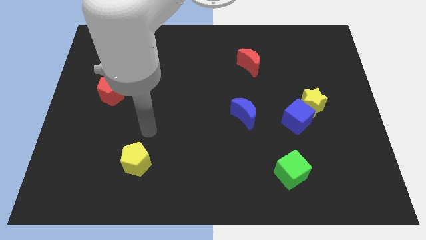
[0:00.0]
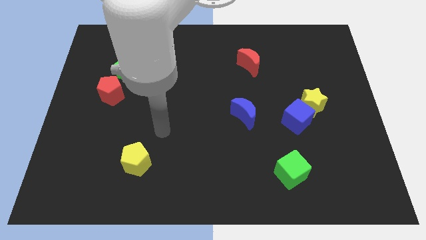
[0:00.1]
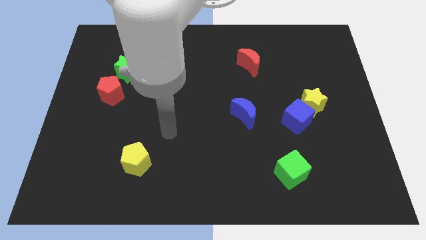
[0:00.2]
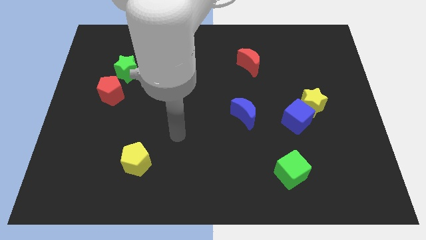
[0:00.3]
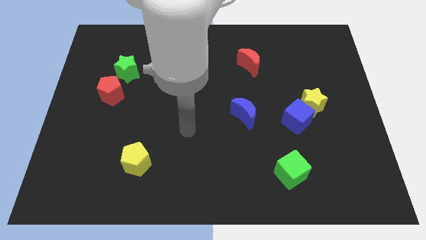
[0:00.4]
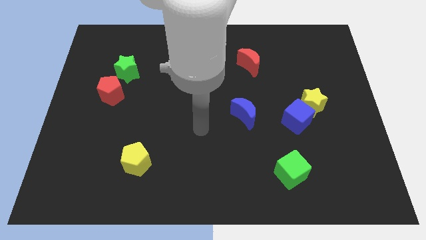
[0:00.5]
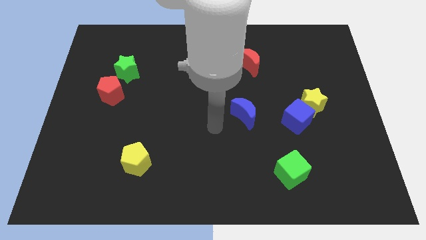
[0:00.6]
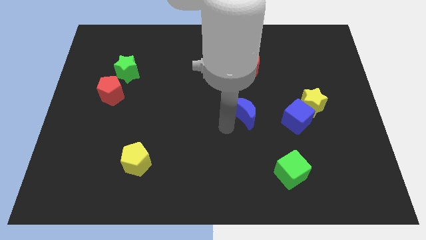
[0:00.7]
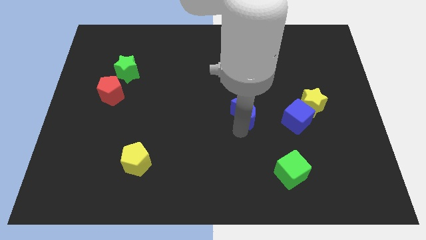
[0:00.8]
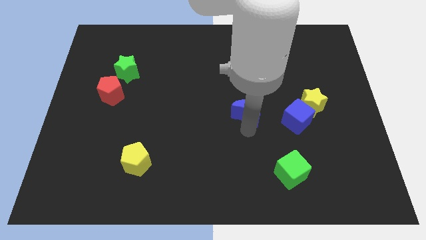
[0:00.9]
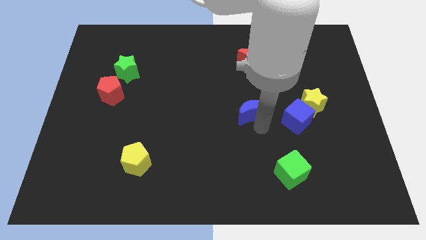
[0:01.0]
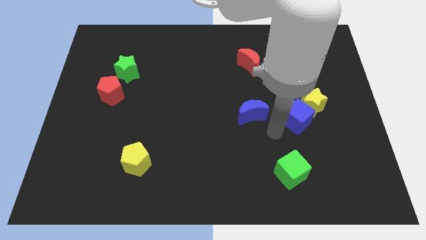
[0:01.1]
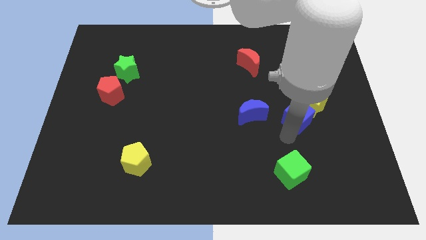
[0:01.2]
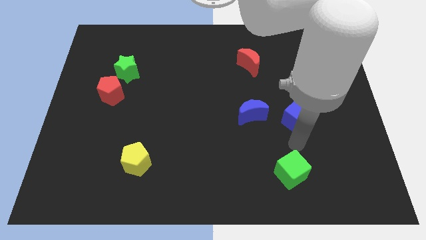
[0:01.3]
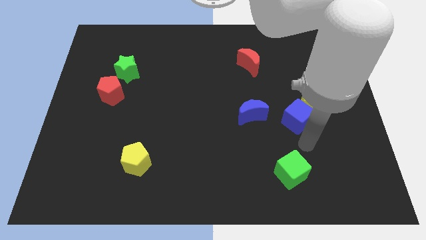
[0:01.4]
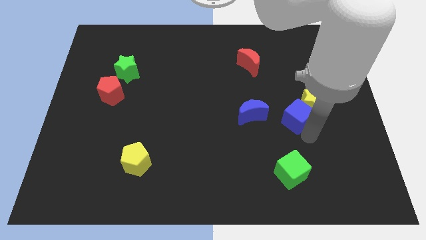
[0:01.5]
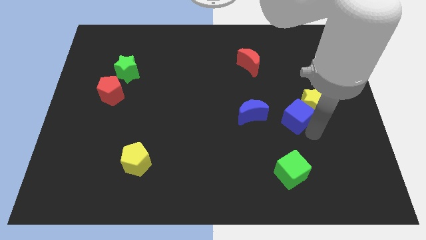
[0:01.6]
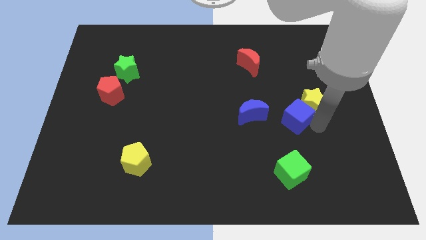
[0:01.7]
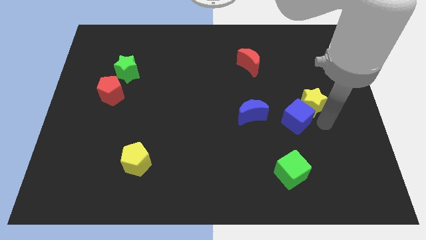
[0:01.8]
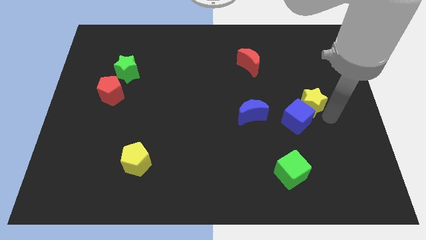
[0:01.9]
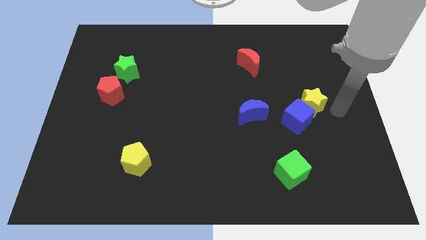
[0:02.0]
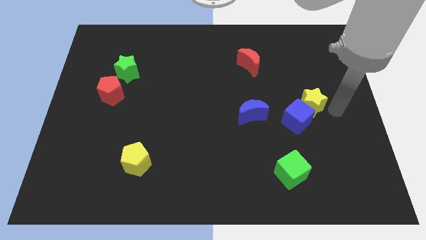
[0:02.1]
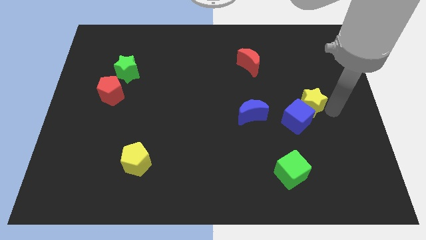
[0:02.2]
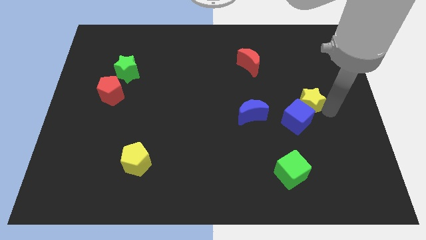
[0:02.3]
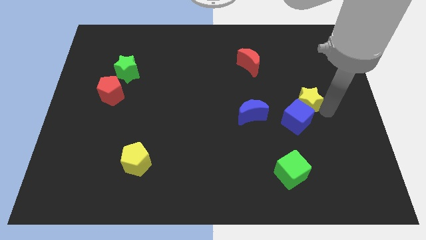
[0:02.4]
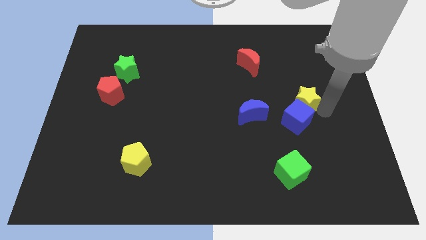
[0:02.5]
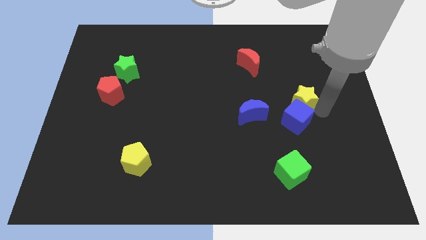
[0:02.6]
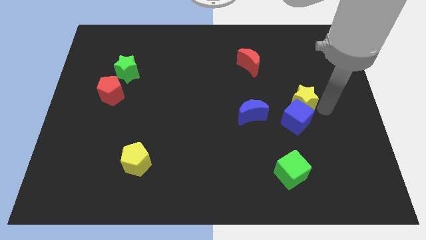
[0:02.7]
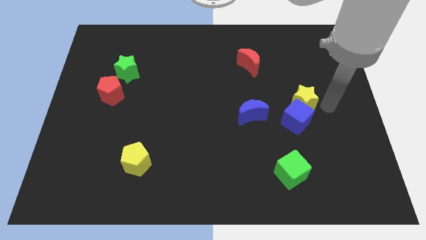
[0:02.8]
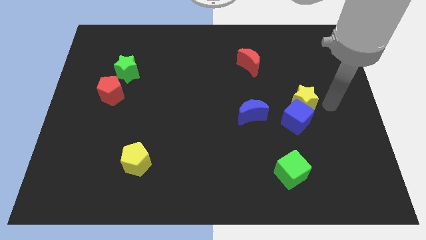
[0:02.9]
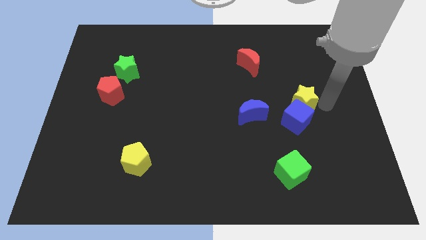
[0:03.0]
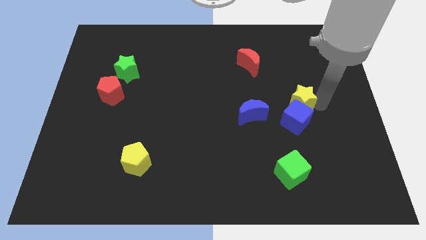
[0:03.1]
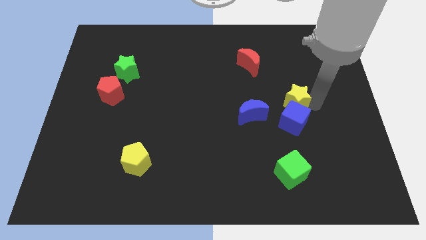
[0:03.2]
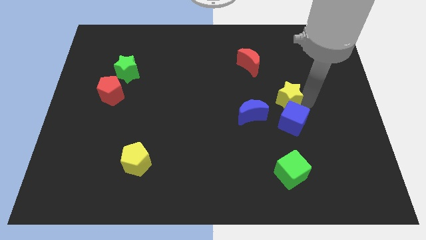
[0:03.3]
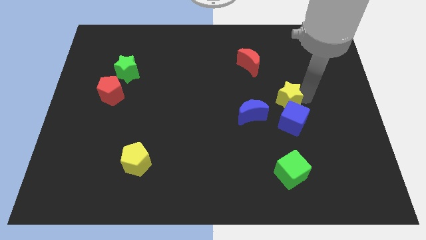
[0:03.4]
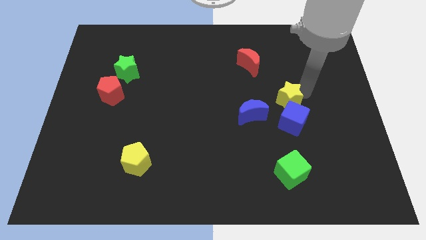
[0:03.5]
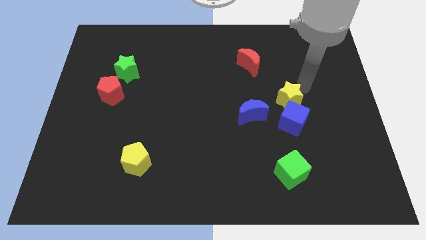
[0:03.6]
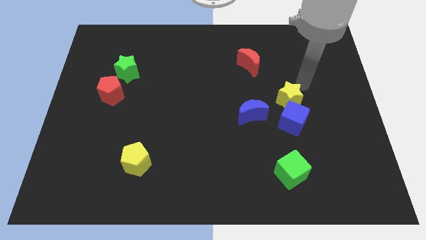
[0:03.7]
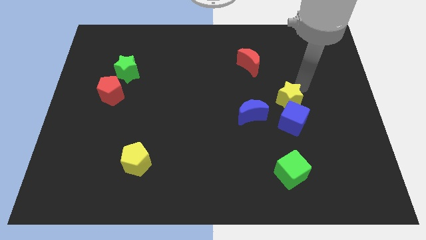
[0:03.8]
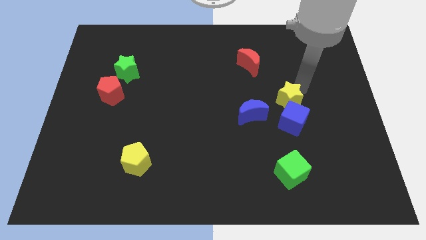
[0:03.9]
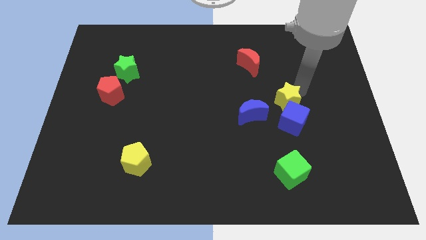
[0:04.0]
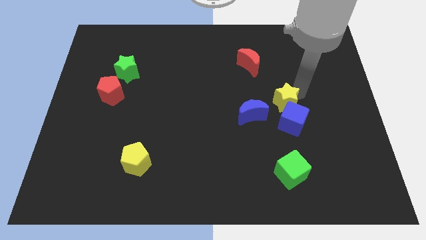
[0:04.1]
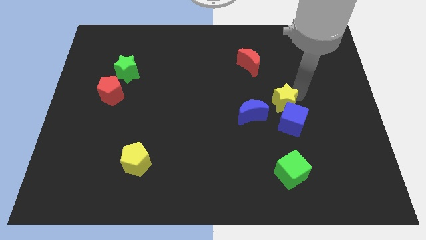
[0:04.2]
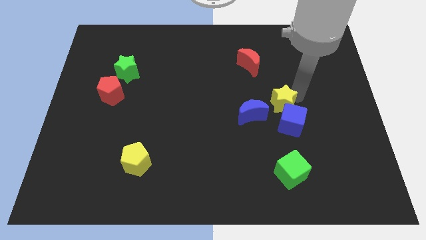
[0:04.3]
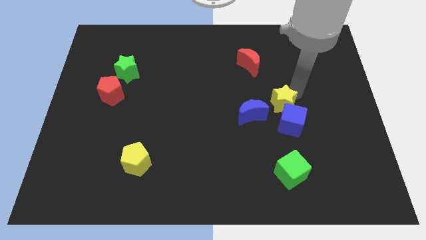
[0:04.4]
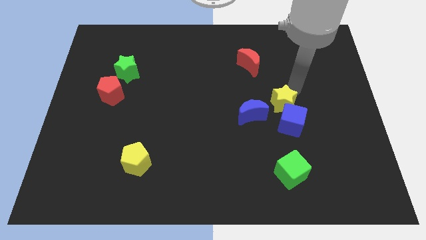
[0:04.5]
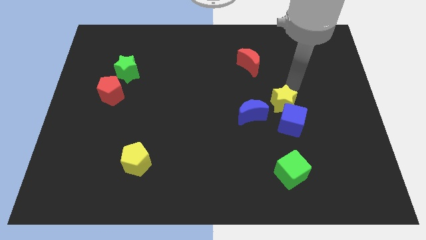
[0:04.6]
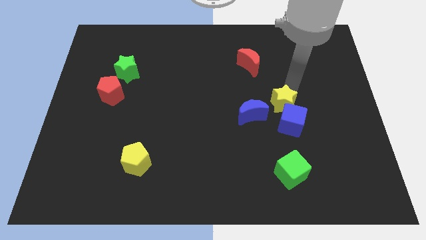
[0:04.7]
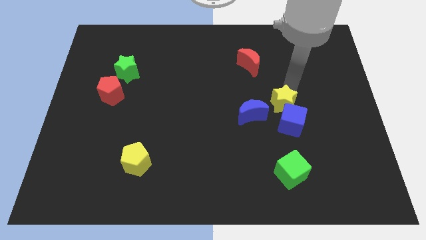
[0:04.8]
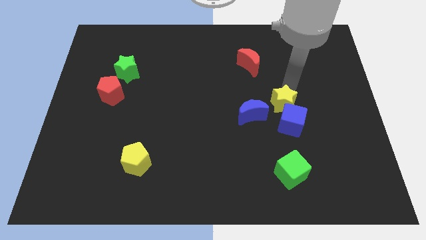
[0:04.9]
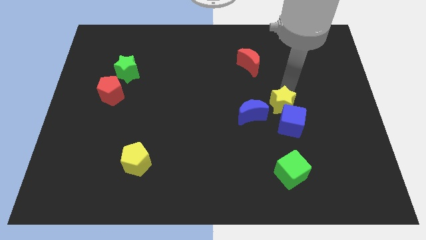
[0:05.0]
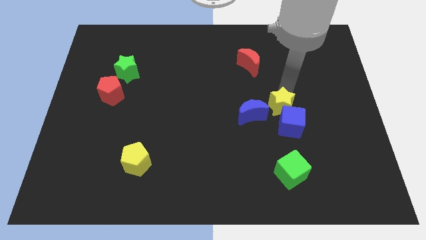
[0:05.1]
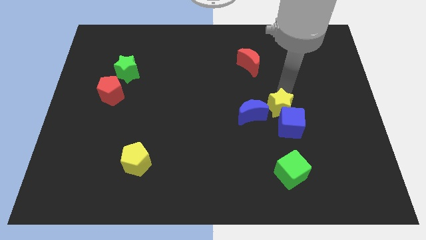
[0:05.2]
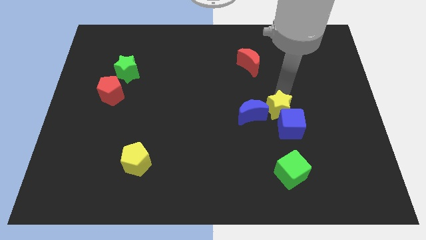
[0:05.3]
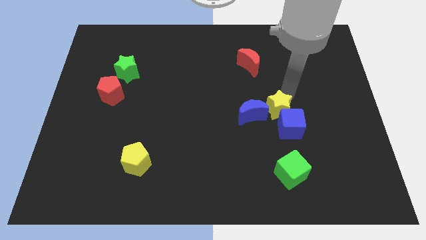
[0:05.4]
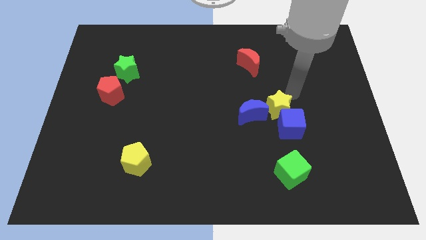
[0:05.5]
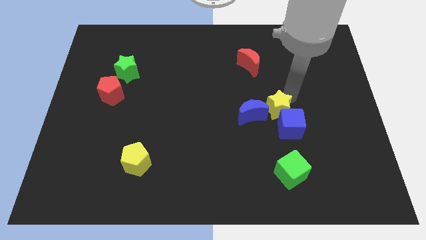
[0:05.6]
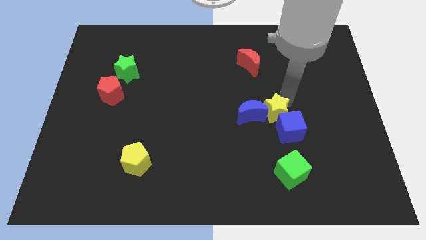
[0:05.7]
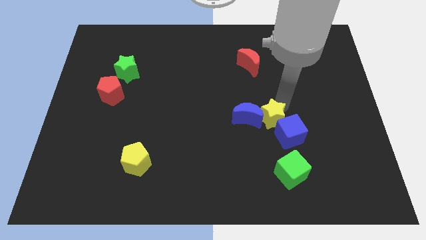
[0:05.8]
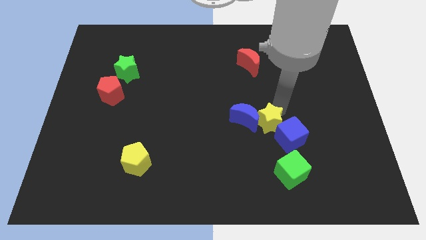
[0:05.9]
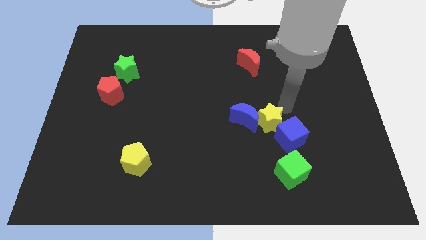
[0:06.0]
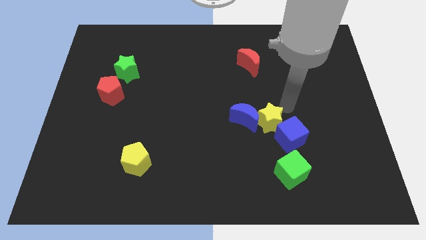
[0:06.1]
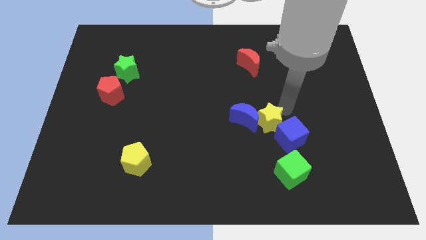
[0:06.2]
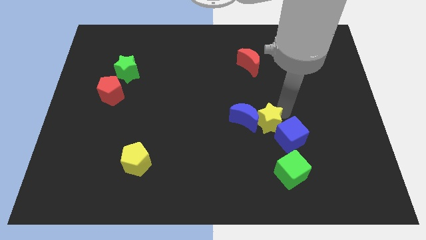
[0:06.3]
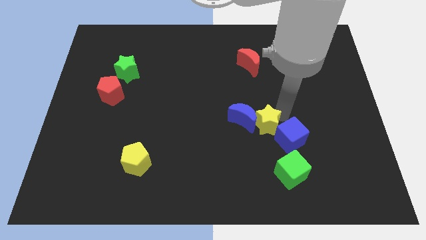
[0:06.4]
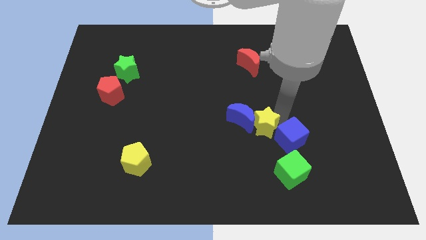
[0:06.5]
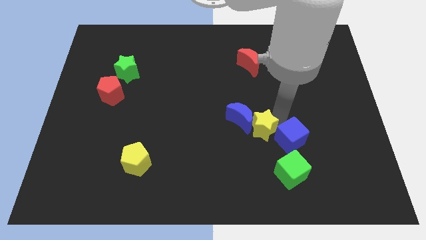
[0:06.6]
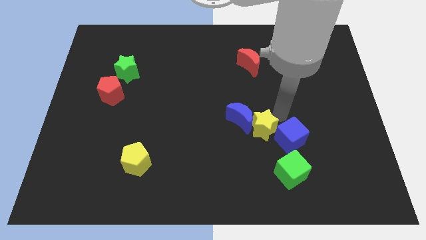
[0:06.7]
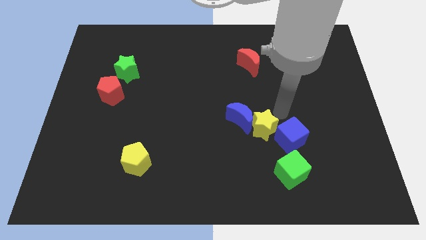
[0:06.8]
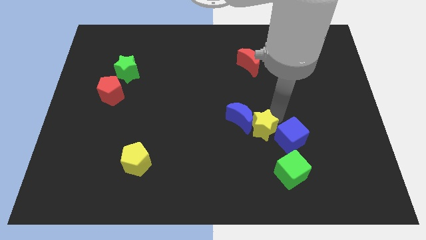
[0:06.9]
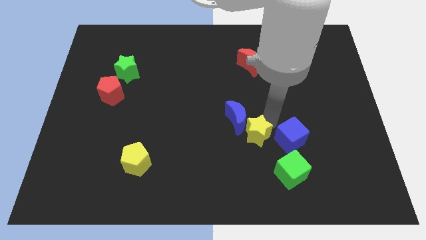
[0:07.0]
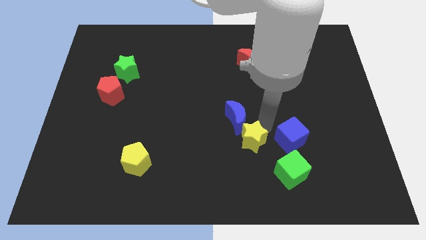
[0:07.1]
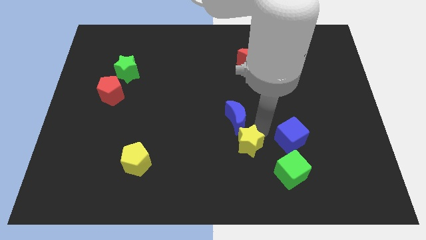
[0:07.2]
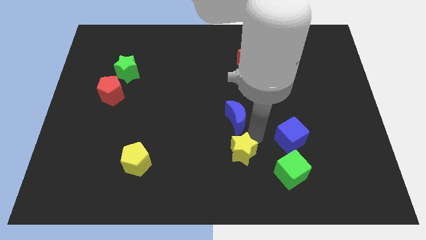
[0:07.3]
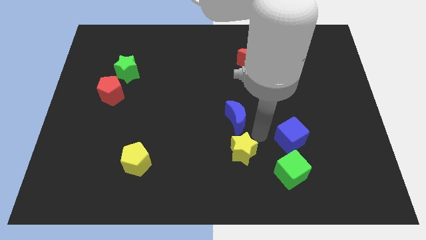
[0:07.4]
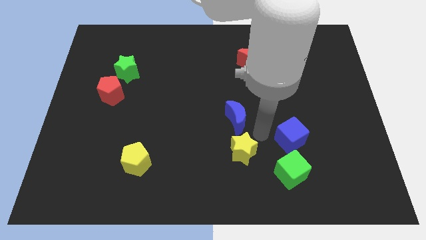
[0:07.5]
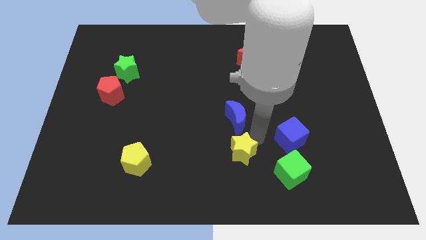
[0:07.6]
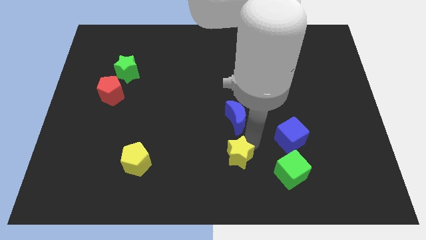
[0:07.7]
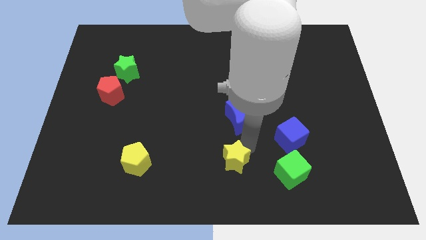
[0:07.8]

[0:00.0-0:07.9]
move the yellow star to the bottom

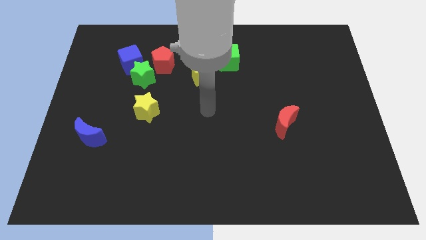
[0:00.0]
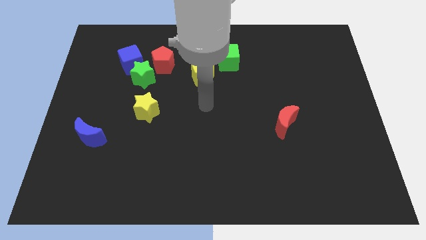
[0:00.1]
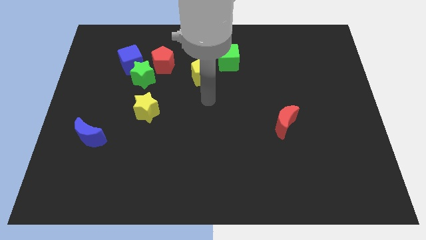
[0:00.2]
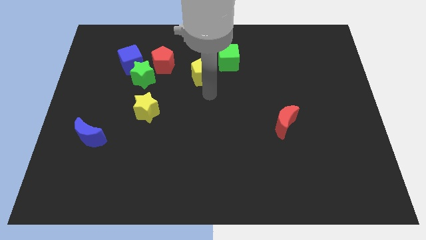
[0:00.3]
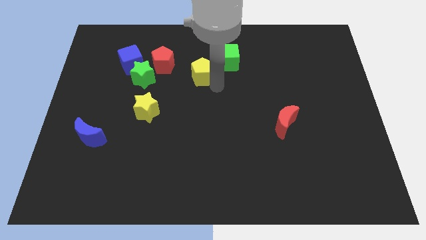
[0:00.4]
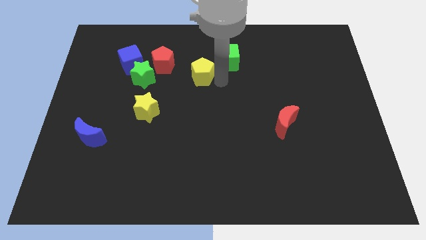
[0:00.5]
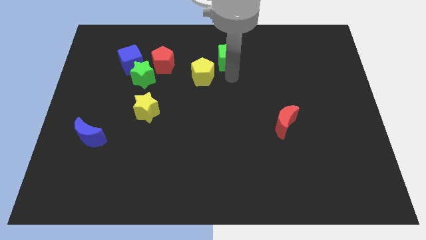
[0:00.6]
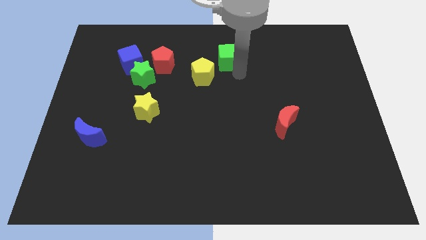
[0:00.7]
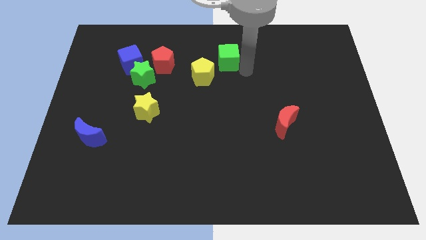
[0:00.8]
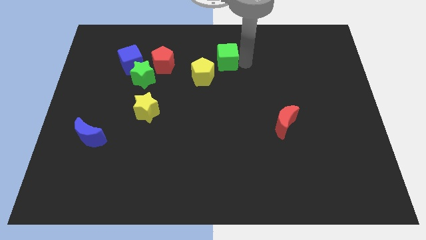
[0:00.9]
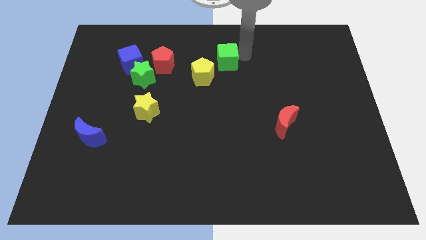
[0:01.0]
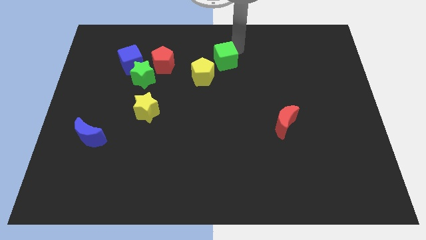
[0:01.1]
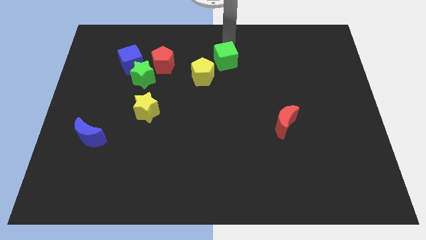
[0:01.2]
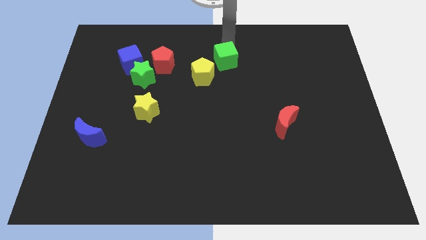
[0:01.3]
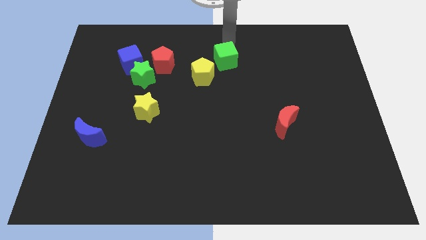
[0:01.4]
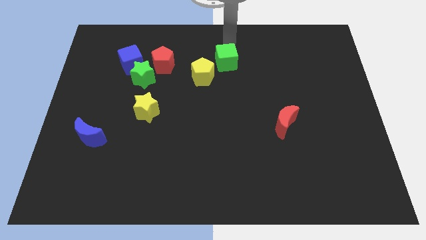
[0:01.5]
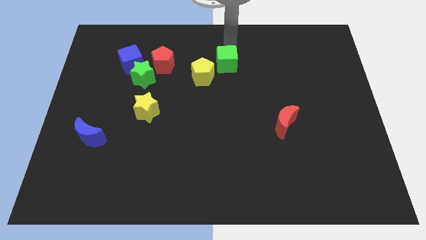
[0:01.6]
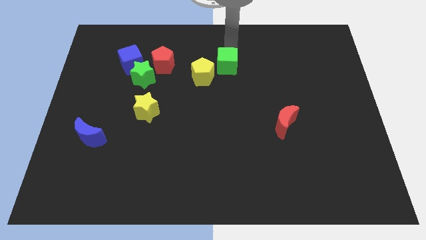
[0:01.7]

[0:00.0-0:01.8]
put the green cube to the middle of the board
